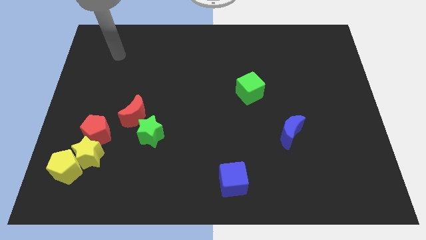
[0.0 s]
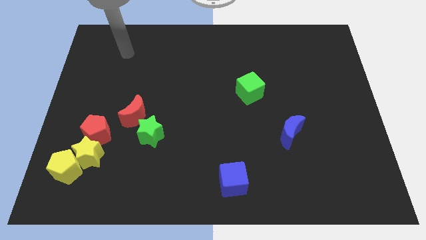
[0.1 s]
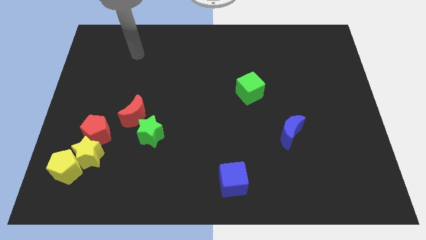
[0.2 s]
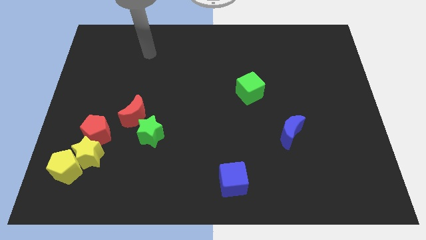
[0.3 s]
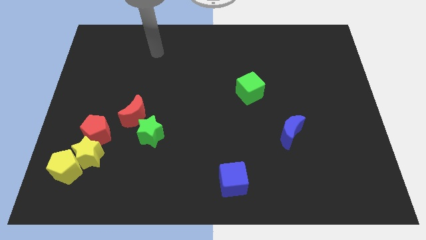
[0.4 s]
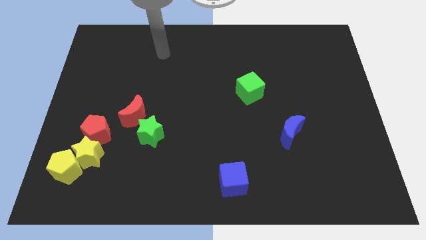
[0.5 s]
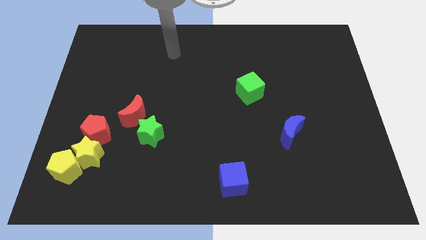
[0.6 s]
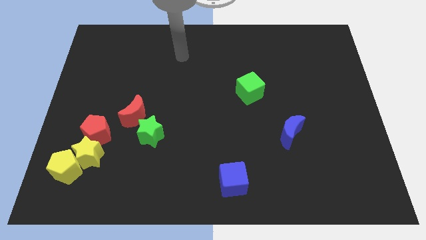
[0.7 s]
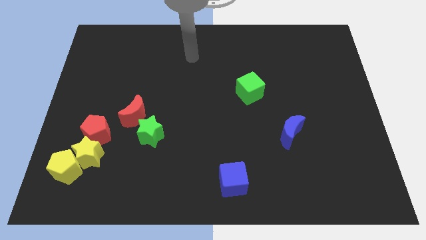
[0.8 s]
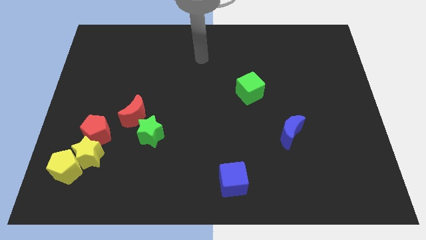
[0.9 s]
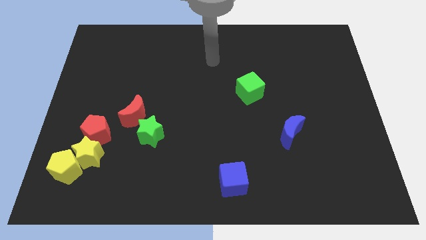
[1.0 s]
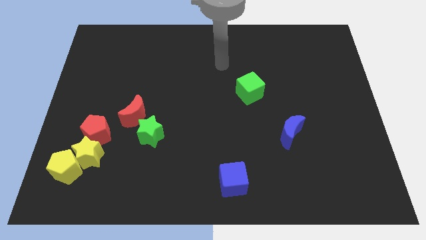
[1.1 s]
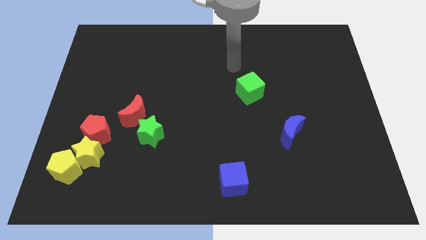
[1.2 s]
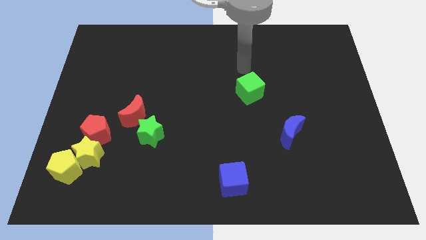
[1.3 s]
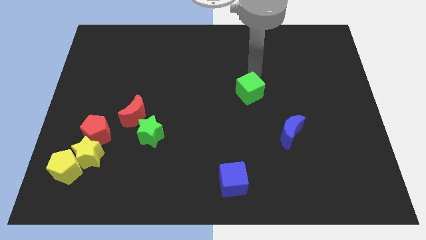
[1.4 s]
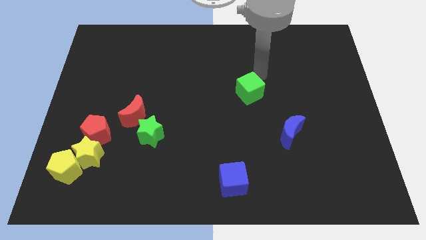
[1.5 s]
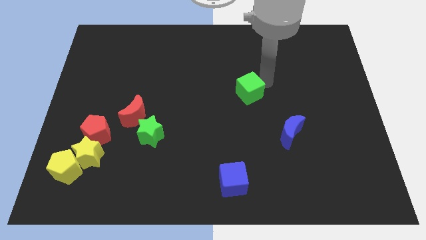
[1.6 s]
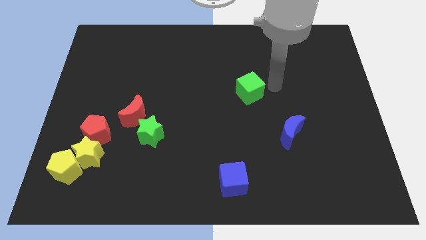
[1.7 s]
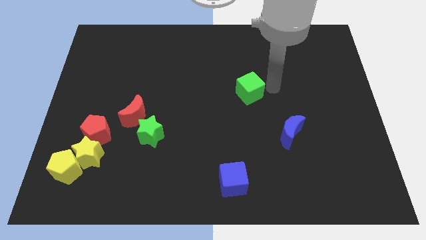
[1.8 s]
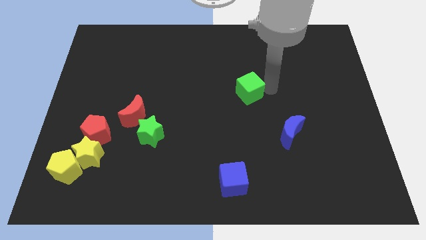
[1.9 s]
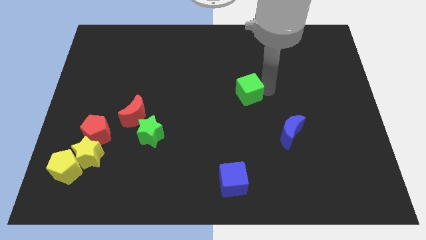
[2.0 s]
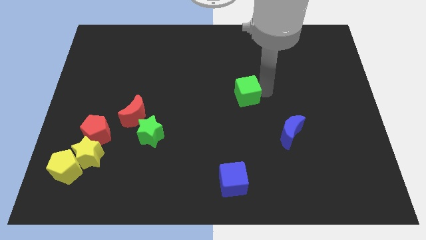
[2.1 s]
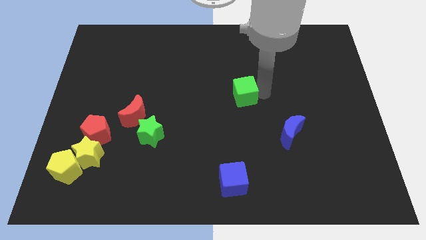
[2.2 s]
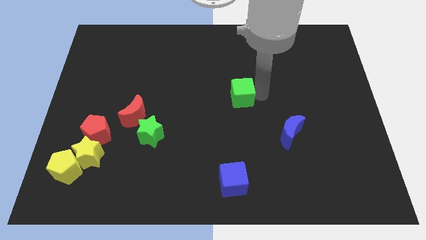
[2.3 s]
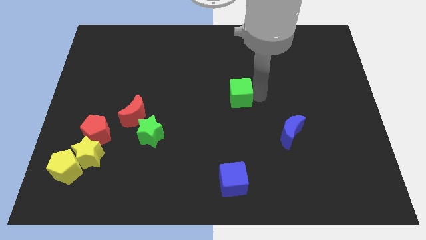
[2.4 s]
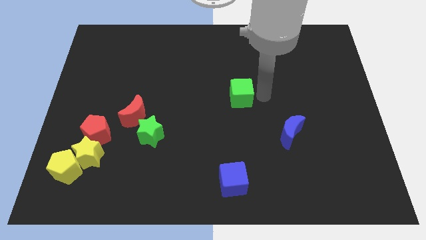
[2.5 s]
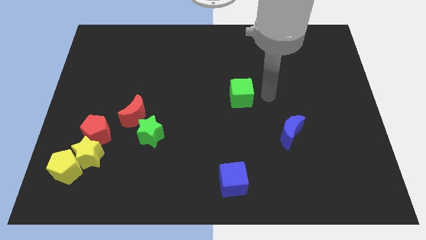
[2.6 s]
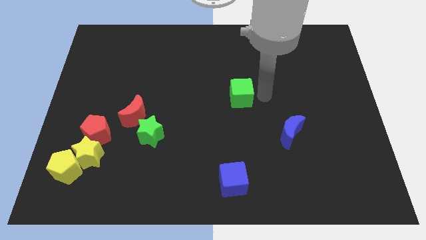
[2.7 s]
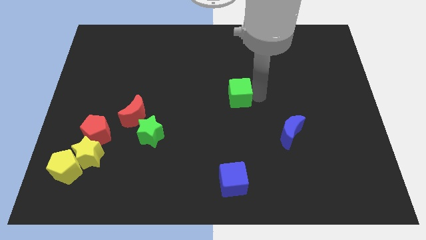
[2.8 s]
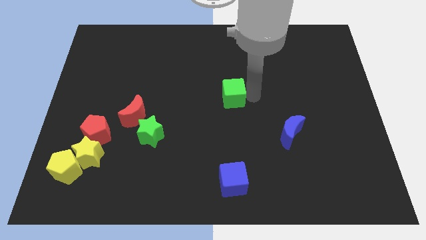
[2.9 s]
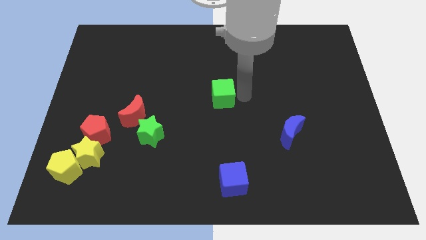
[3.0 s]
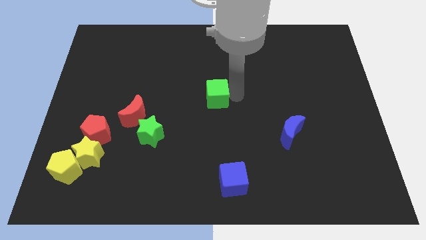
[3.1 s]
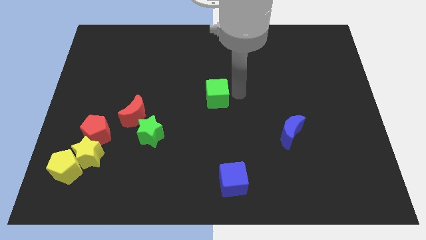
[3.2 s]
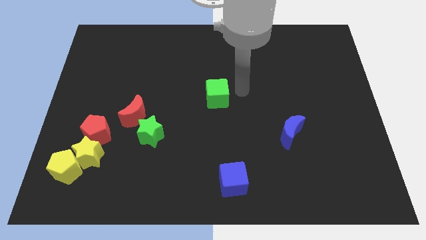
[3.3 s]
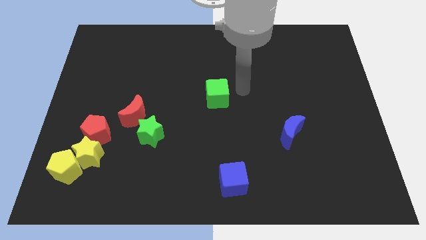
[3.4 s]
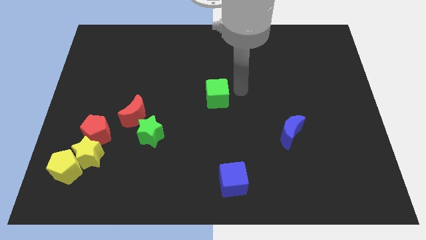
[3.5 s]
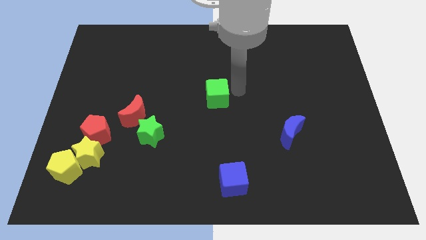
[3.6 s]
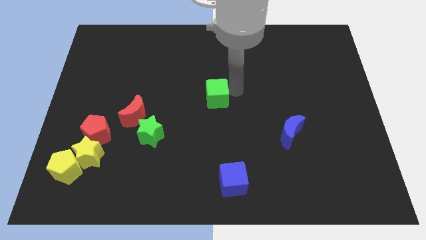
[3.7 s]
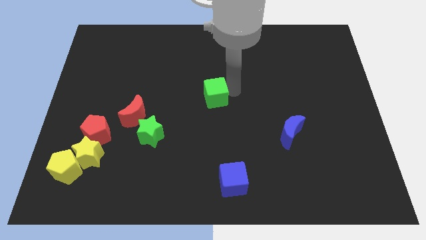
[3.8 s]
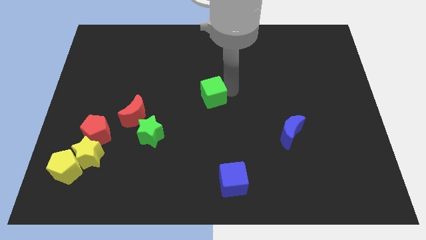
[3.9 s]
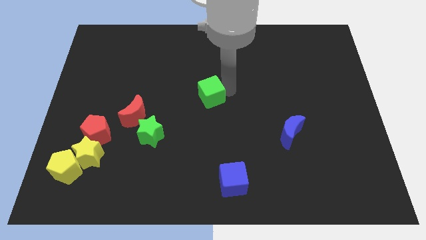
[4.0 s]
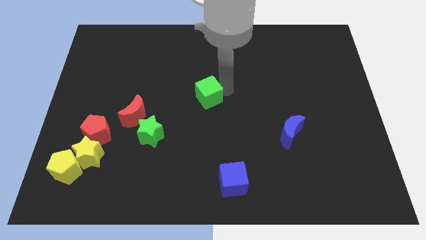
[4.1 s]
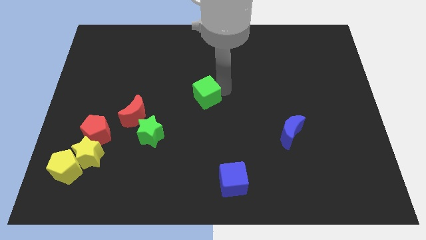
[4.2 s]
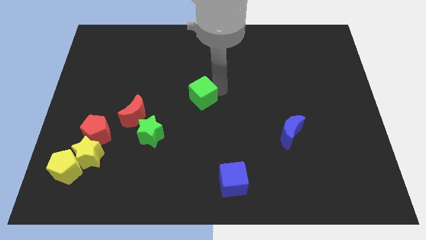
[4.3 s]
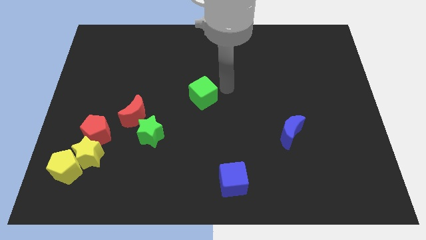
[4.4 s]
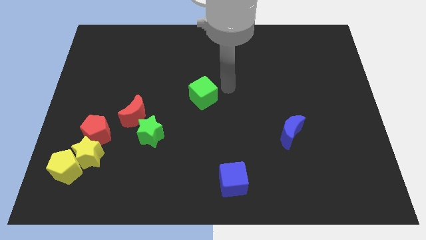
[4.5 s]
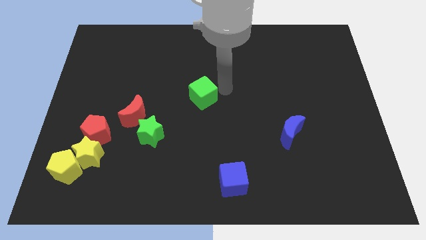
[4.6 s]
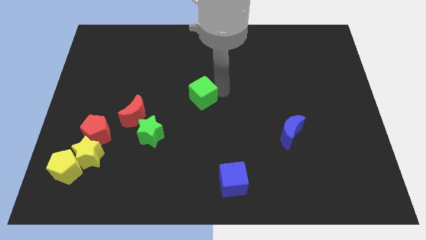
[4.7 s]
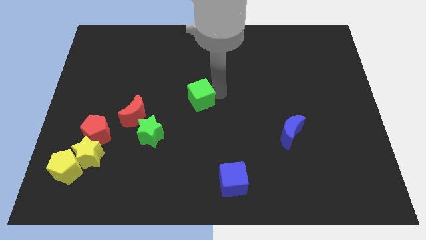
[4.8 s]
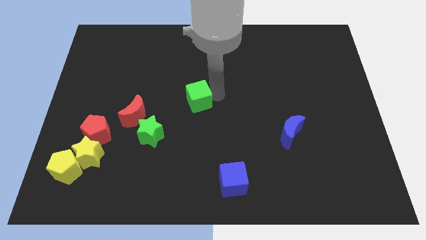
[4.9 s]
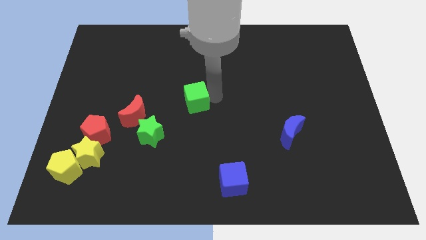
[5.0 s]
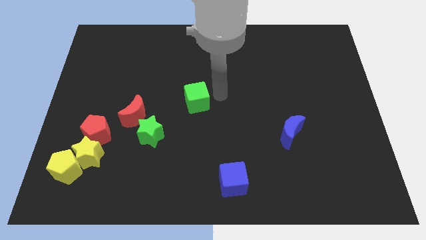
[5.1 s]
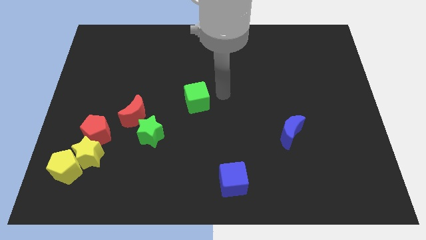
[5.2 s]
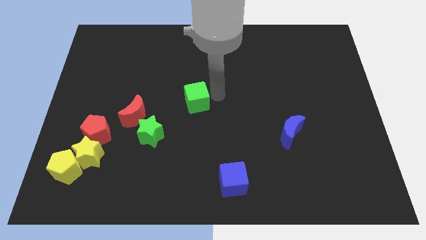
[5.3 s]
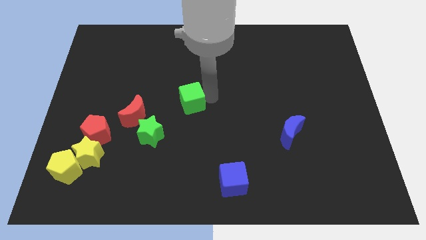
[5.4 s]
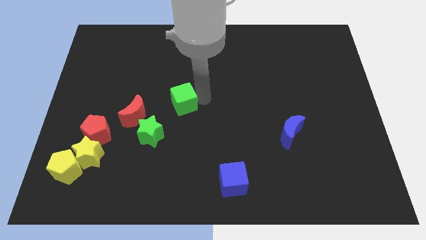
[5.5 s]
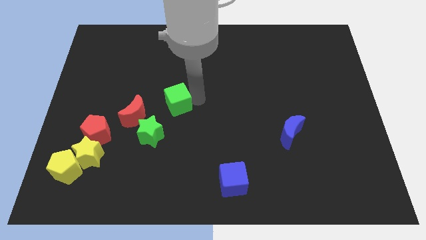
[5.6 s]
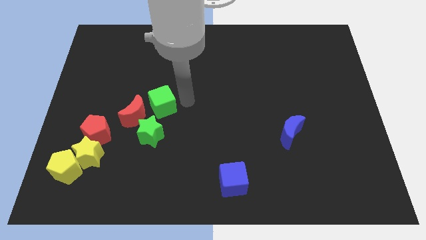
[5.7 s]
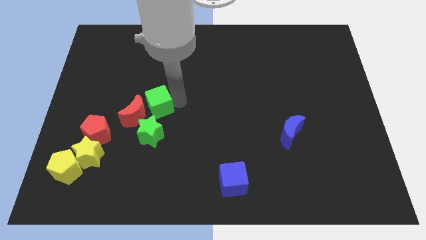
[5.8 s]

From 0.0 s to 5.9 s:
slide the green cube towards the red moon

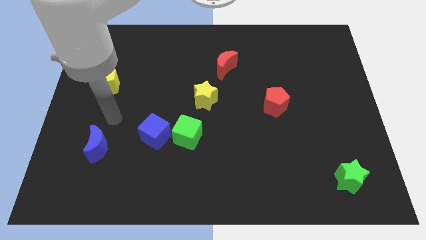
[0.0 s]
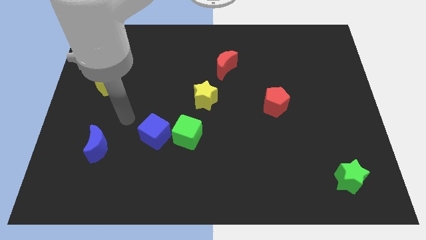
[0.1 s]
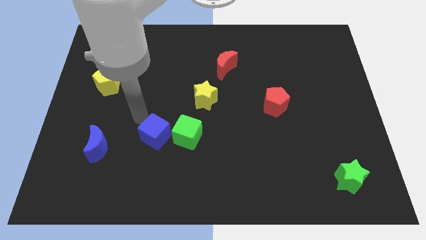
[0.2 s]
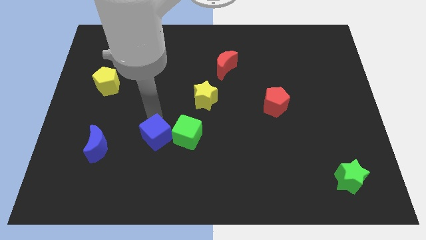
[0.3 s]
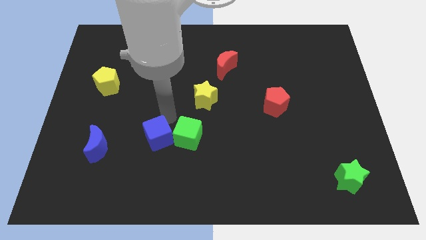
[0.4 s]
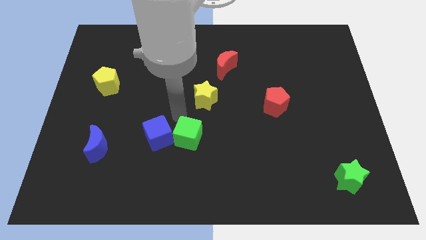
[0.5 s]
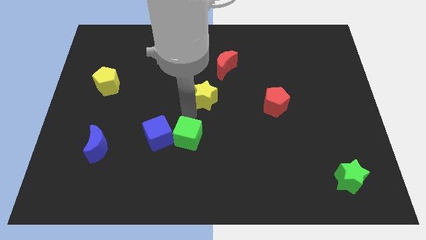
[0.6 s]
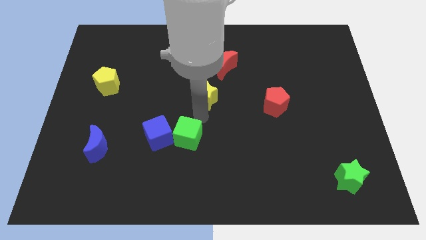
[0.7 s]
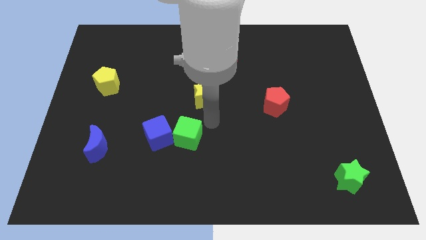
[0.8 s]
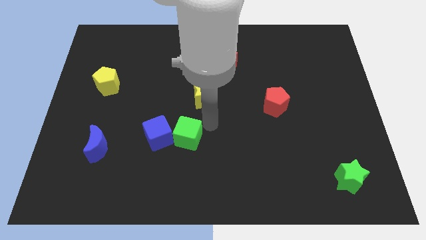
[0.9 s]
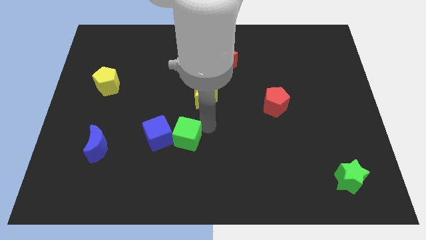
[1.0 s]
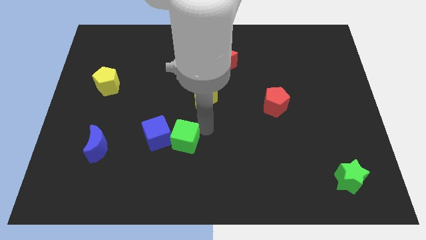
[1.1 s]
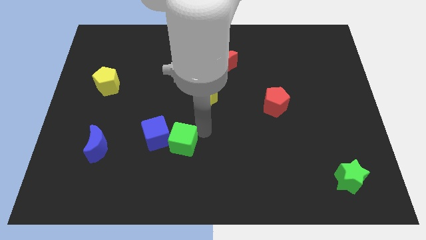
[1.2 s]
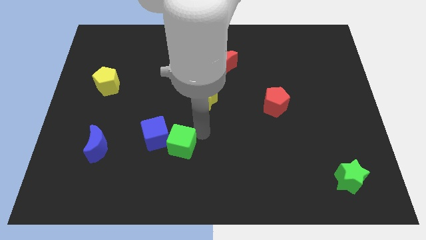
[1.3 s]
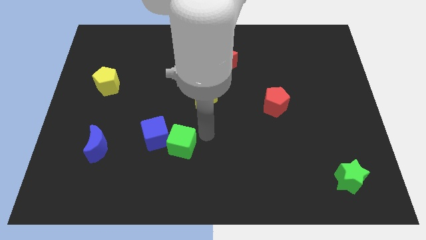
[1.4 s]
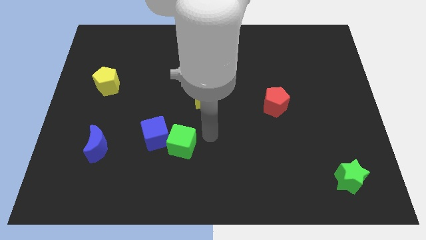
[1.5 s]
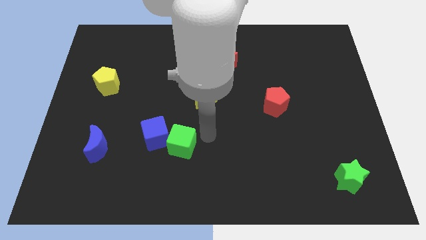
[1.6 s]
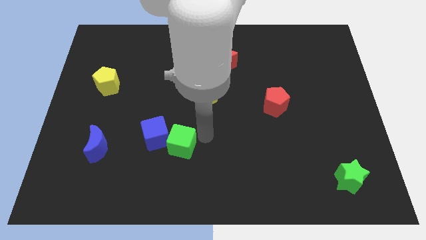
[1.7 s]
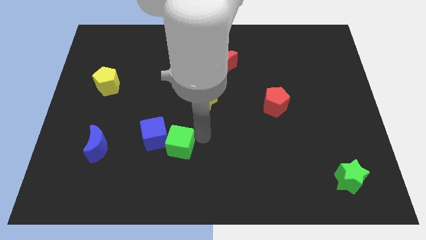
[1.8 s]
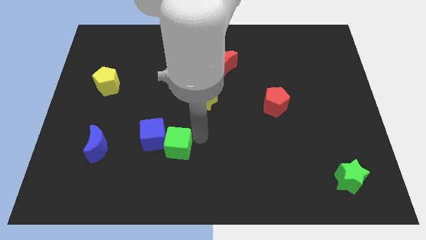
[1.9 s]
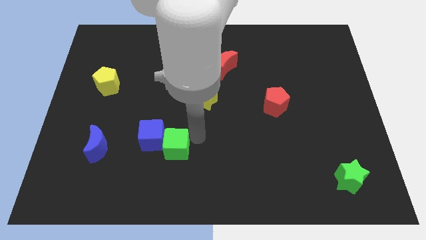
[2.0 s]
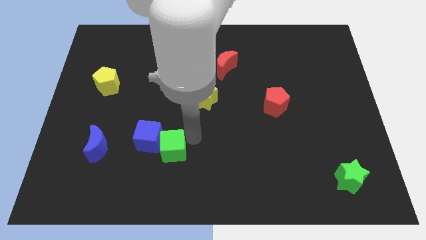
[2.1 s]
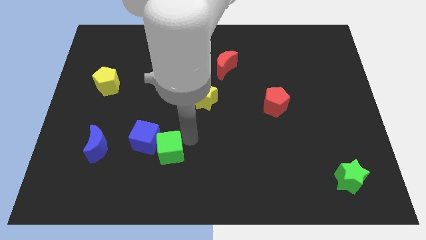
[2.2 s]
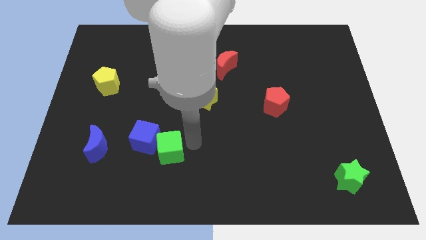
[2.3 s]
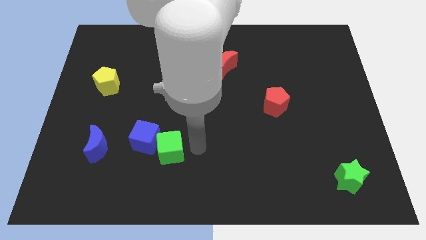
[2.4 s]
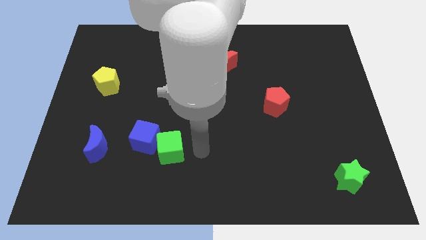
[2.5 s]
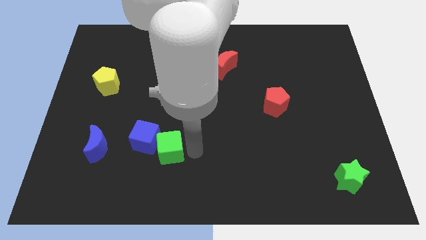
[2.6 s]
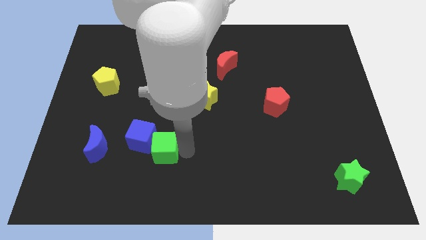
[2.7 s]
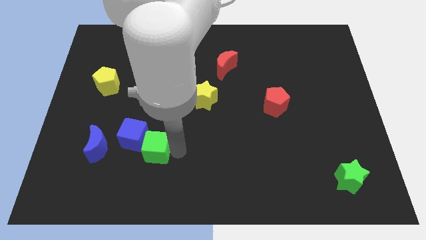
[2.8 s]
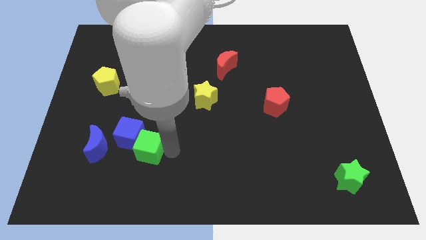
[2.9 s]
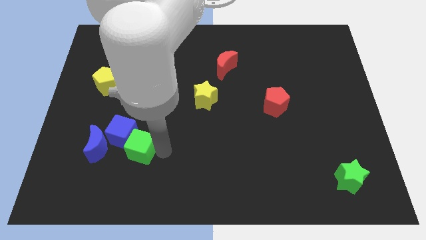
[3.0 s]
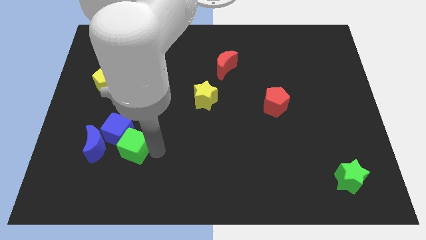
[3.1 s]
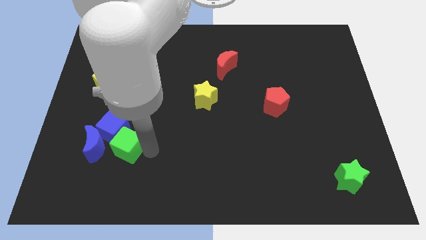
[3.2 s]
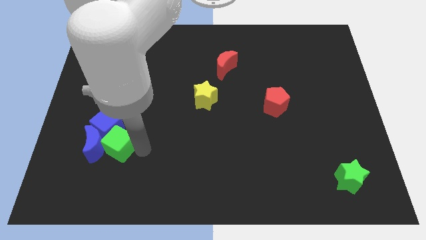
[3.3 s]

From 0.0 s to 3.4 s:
move the green cube to the blue moon
